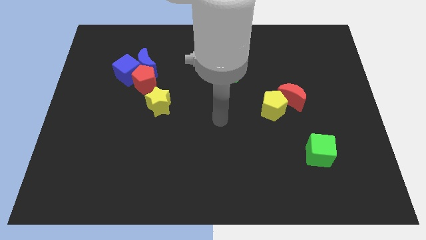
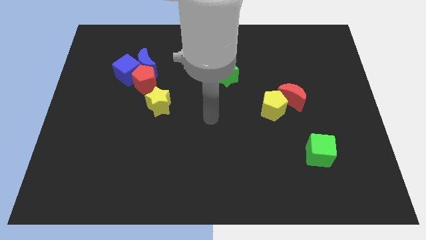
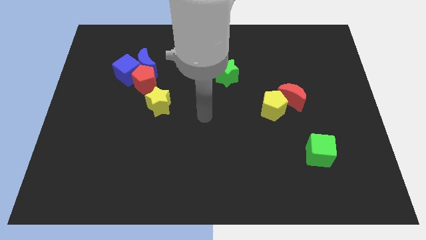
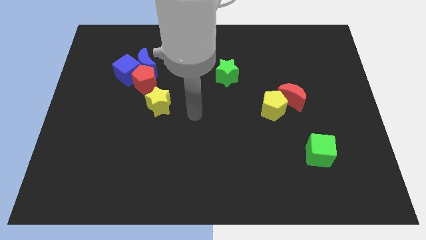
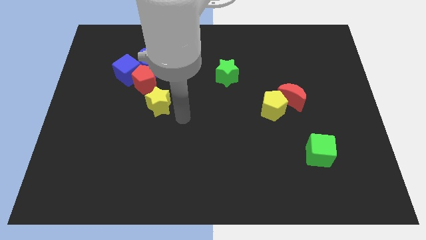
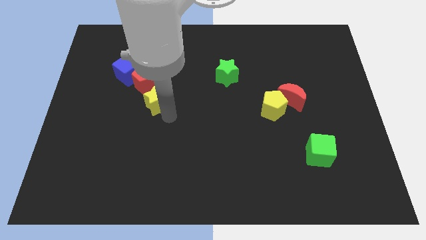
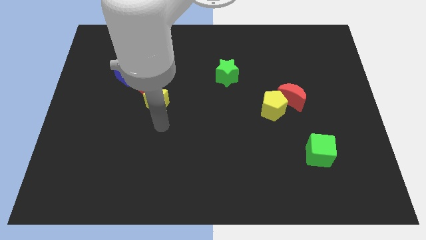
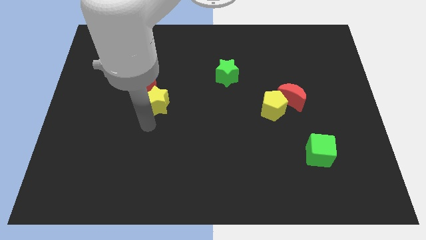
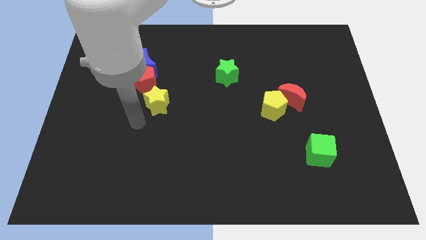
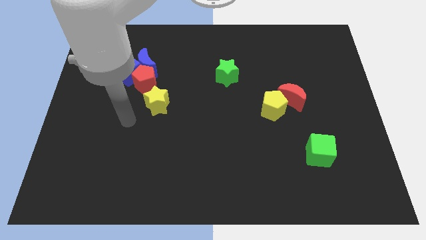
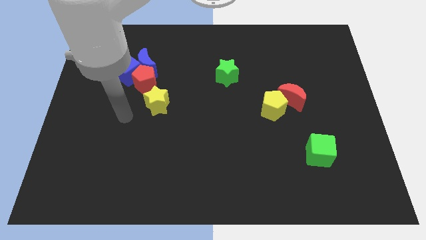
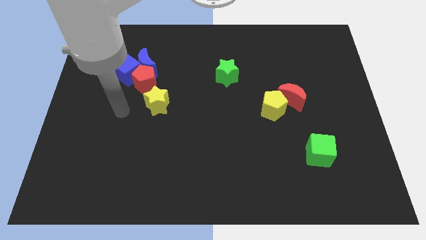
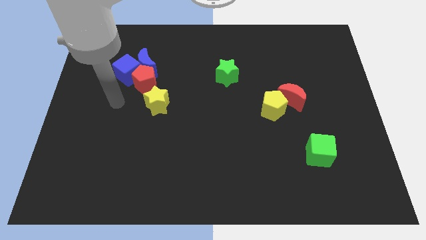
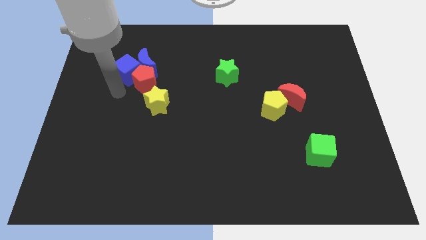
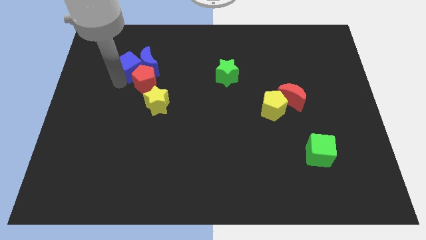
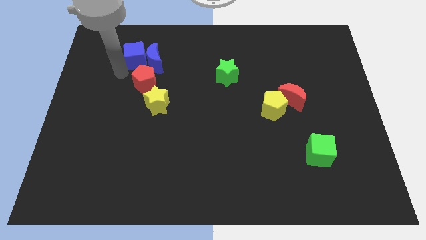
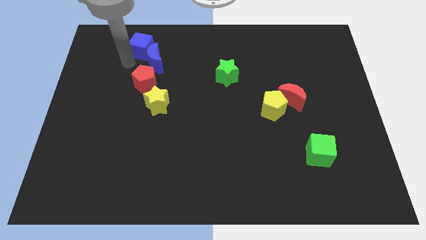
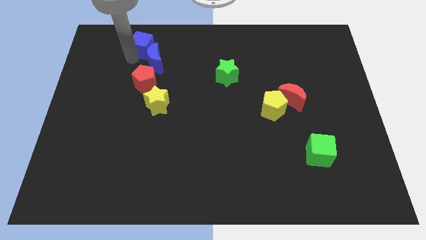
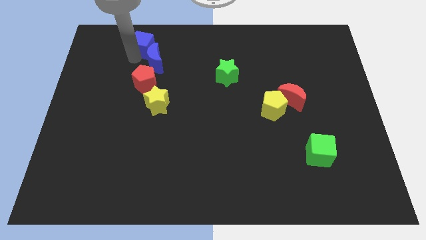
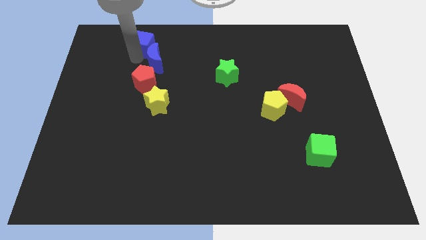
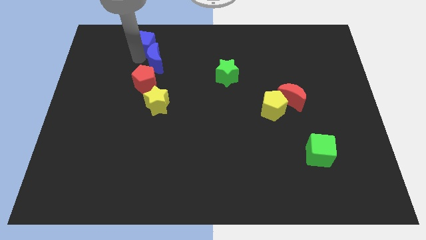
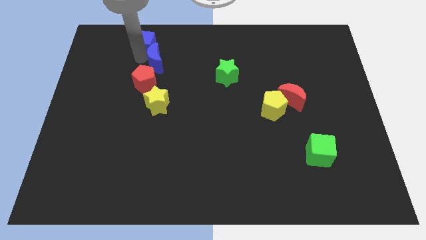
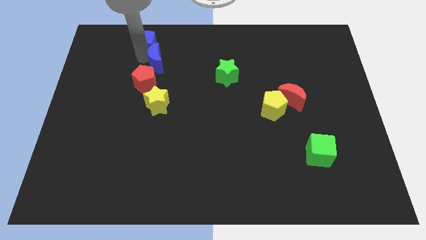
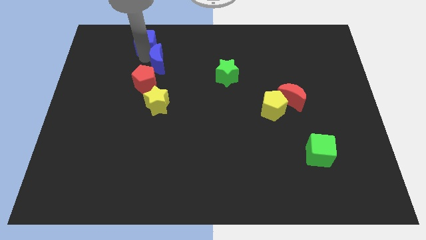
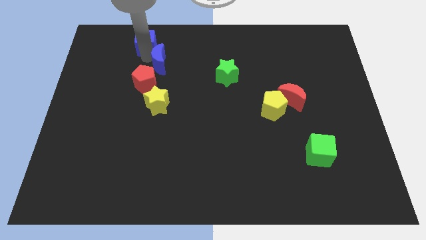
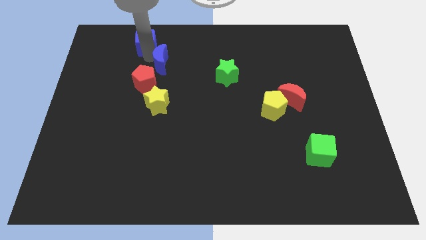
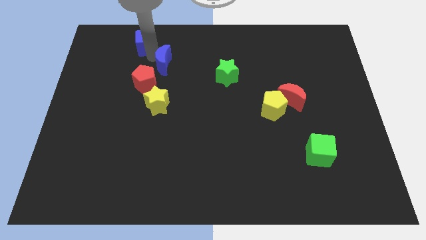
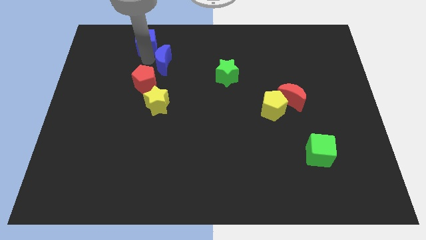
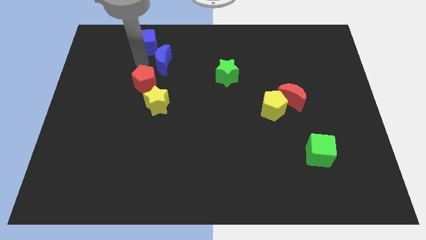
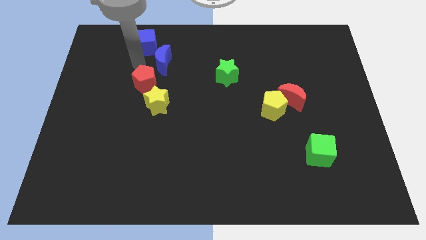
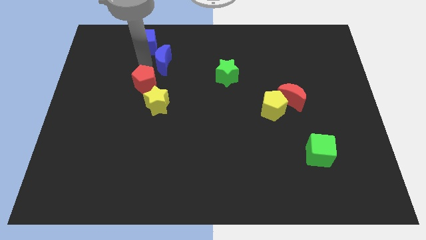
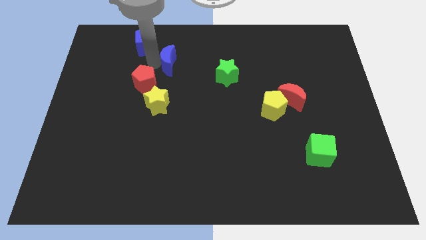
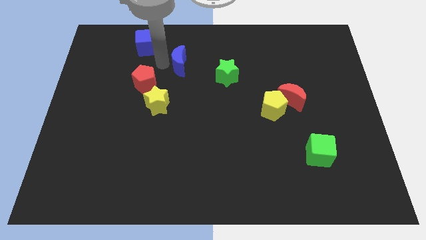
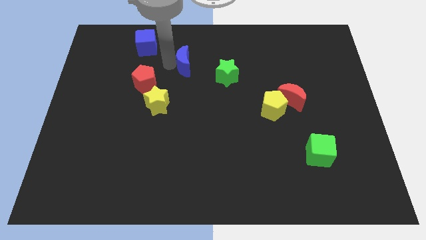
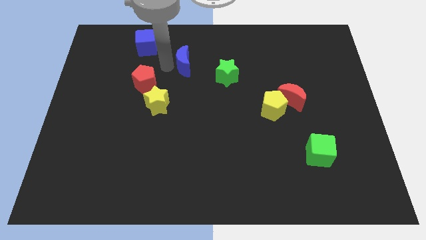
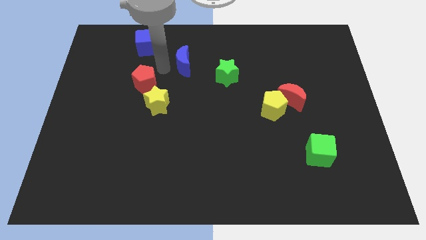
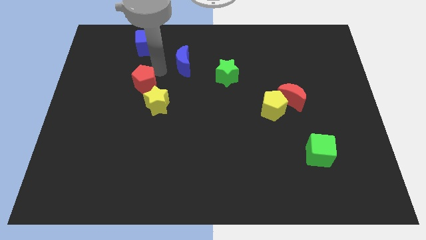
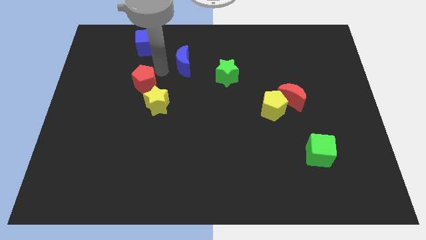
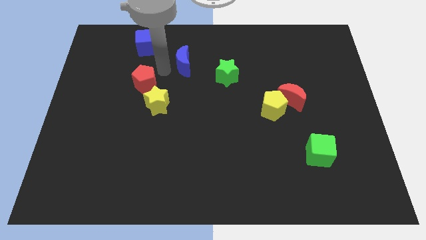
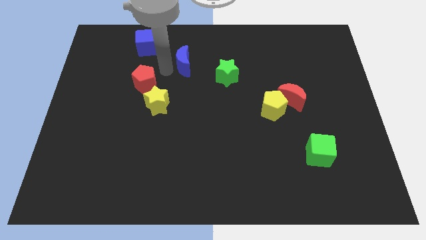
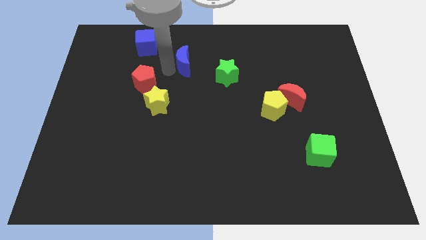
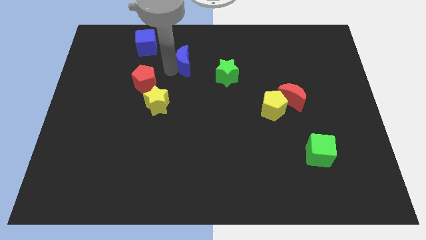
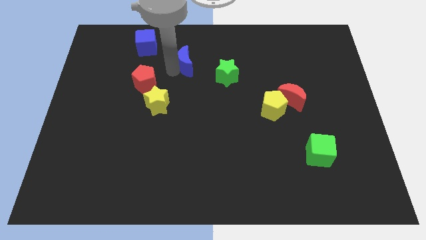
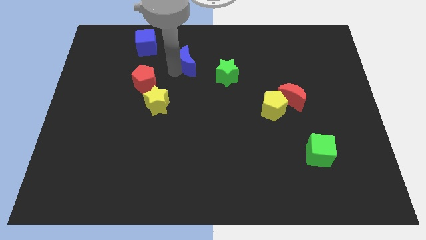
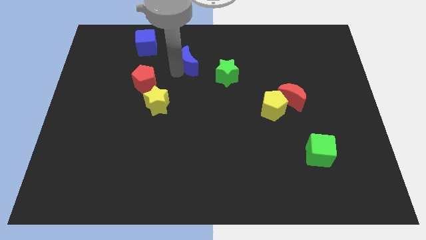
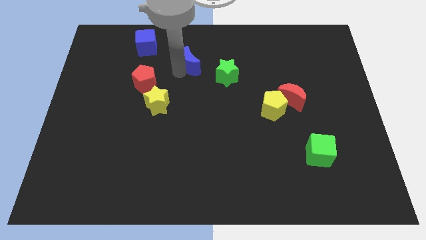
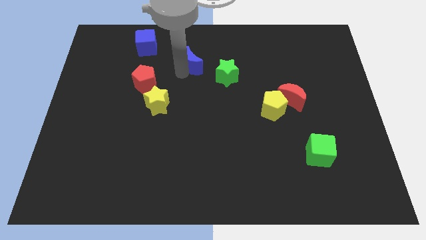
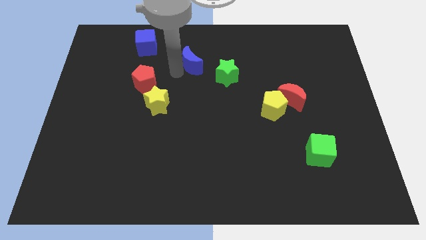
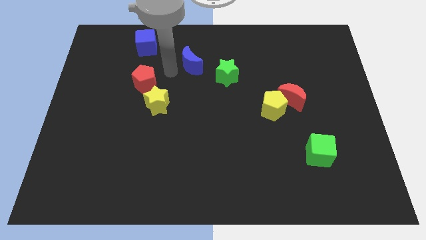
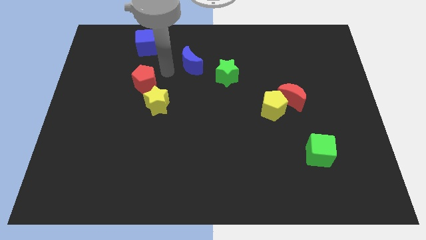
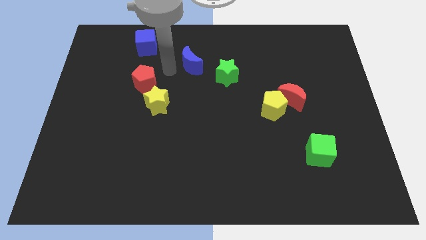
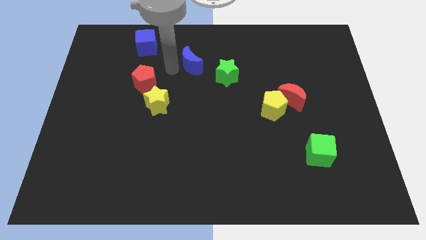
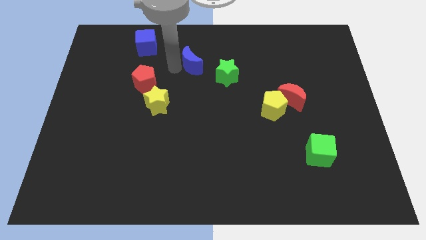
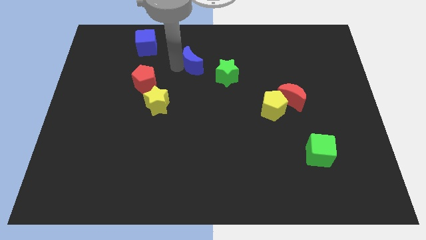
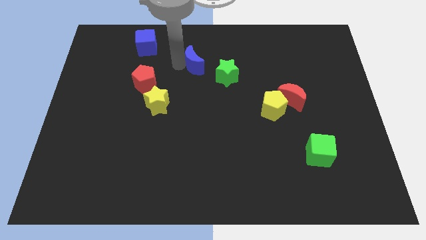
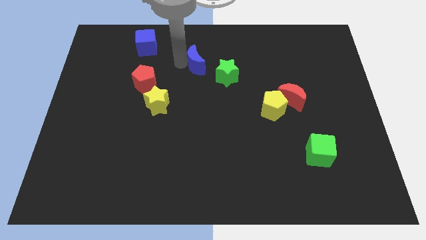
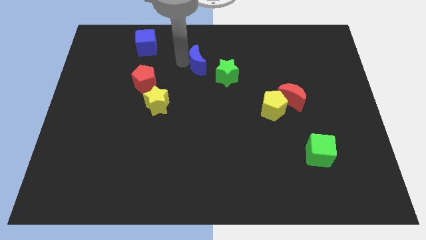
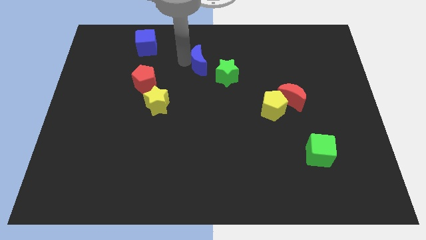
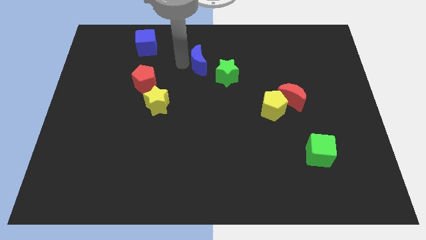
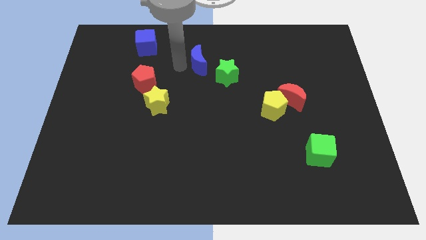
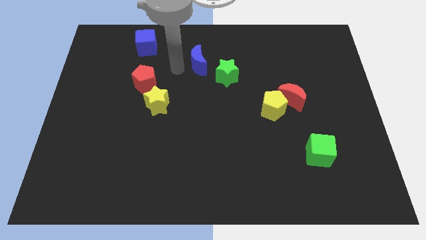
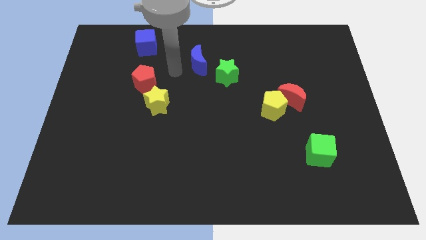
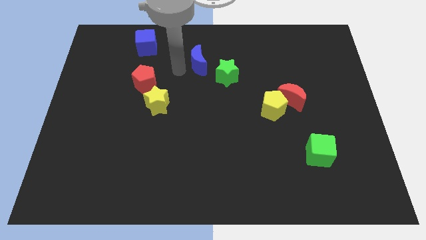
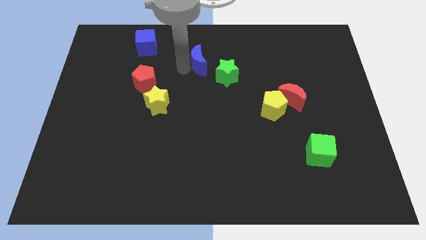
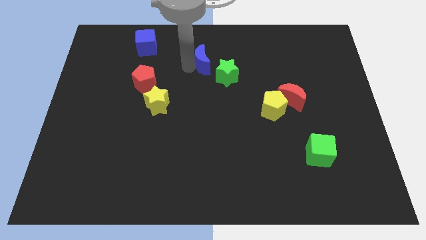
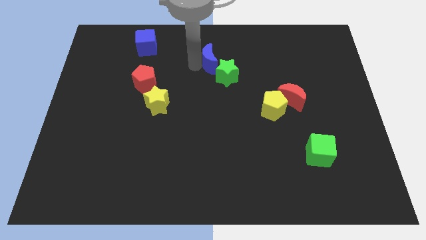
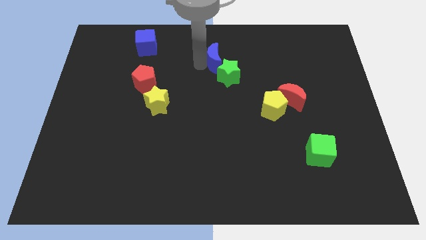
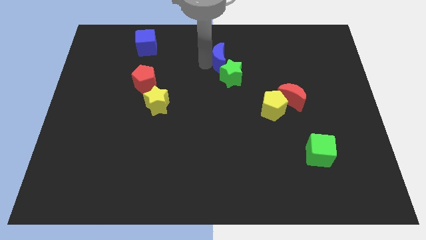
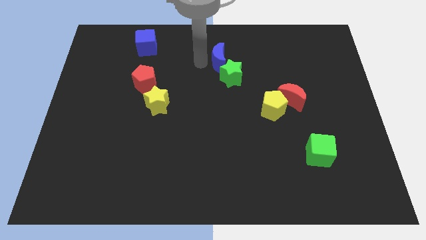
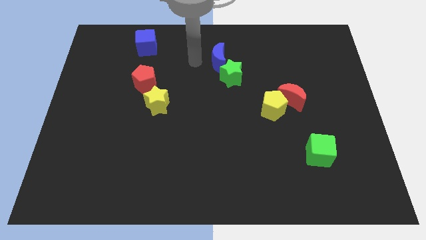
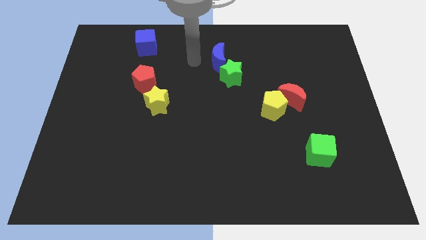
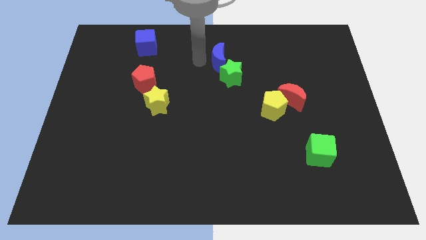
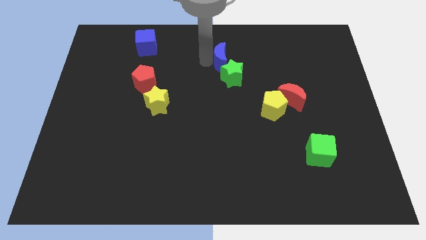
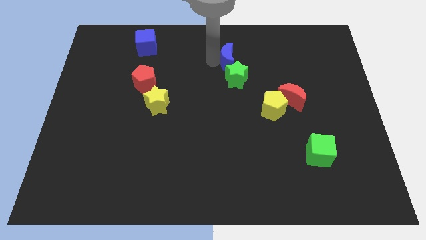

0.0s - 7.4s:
slide the blue moon right

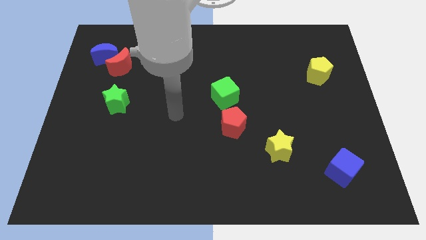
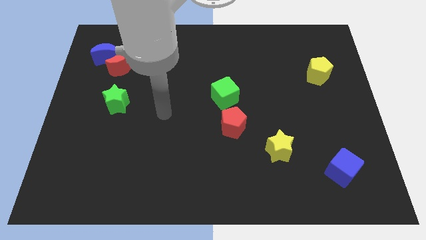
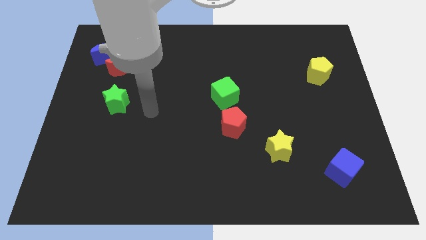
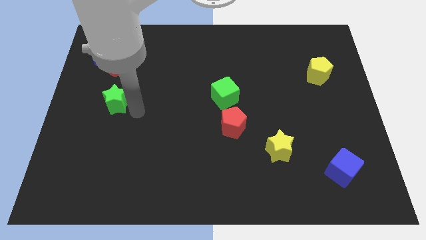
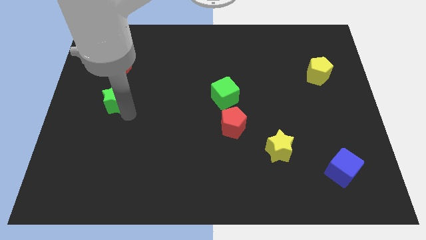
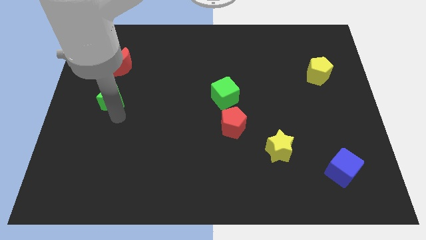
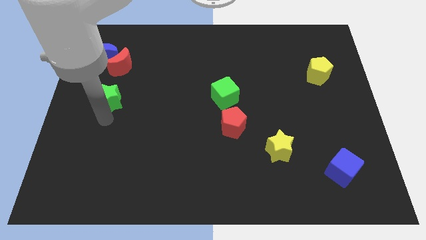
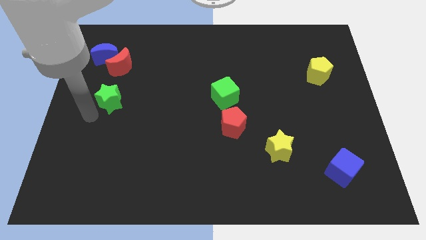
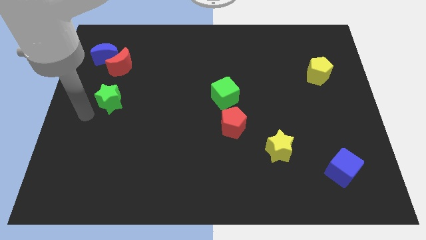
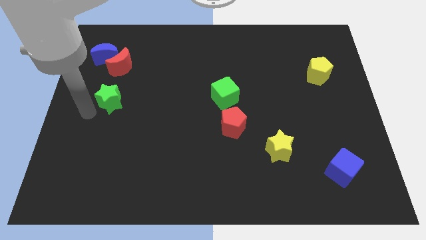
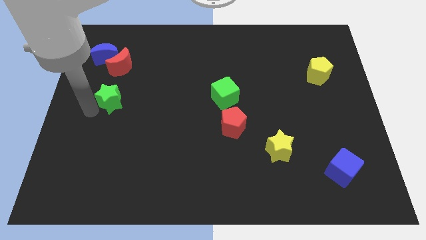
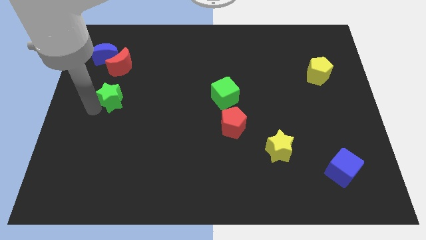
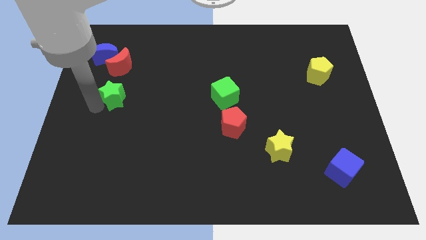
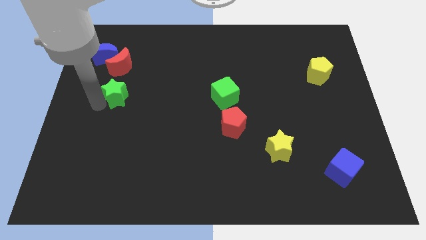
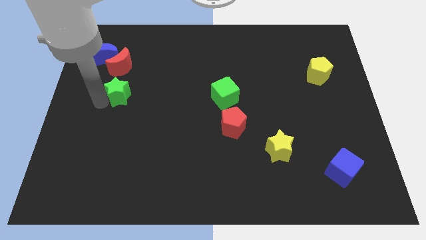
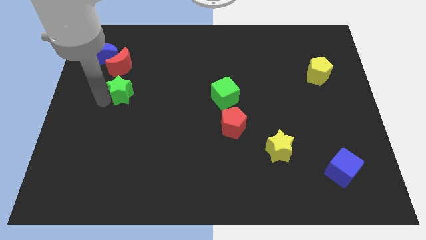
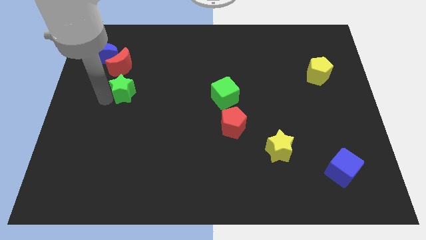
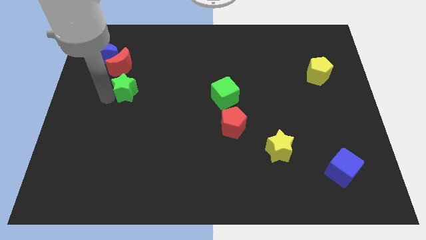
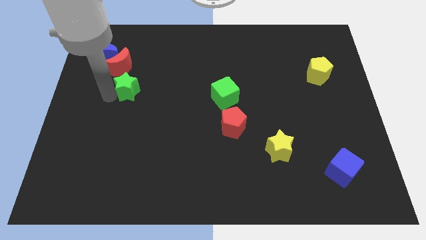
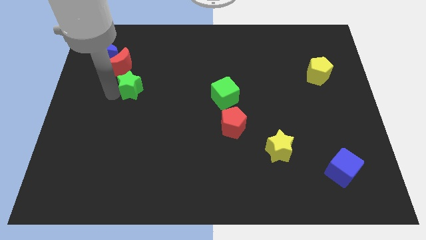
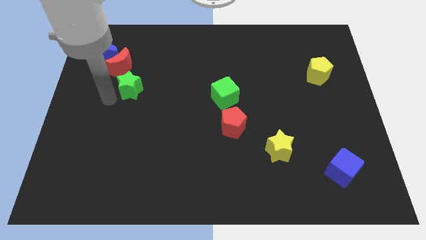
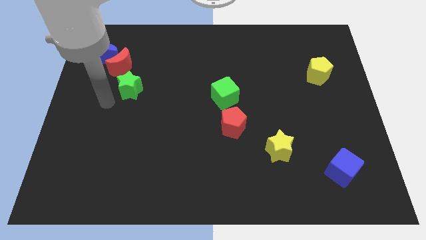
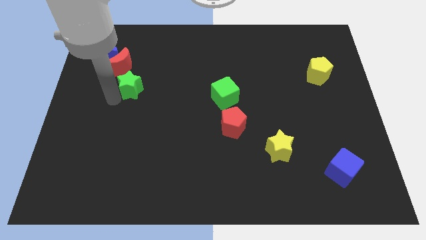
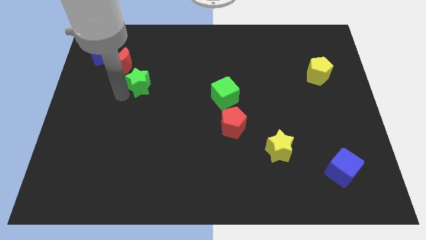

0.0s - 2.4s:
push the green star a bit upwards and to the right
